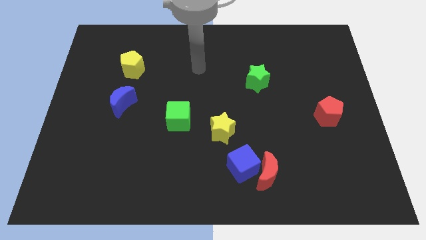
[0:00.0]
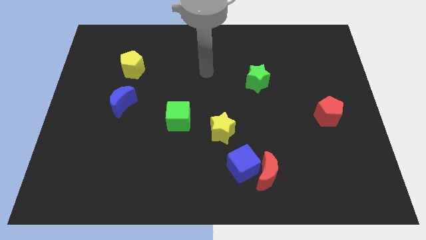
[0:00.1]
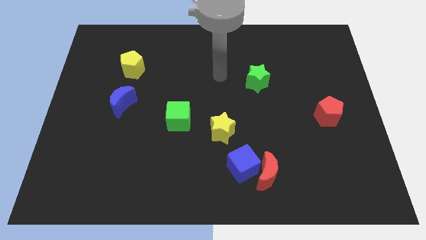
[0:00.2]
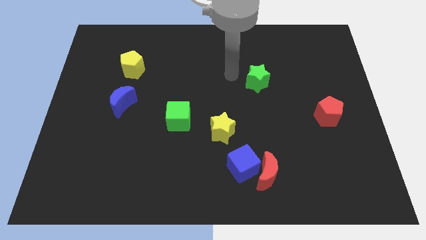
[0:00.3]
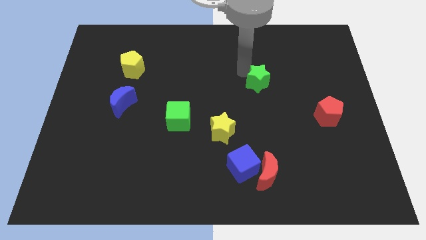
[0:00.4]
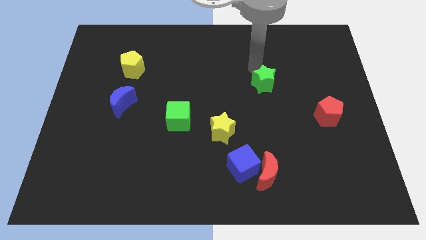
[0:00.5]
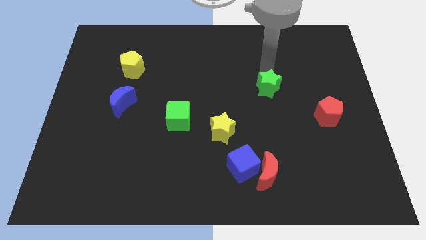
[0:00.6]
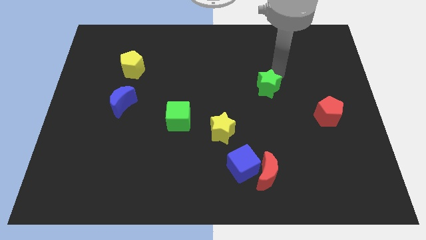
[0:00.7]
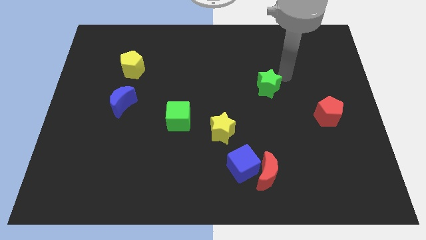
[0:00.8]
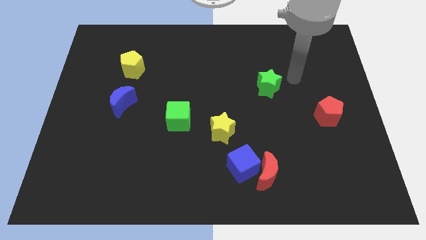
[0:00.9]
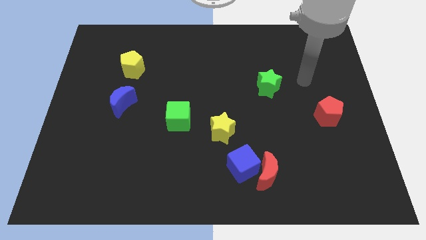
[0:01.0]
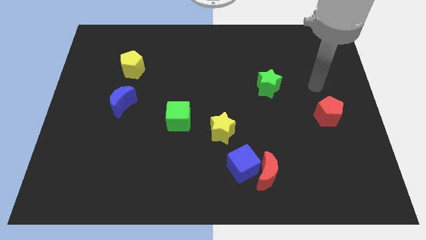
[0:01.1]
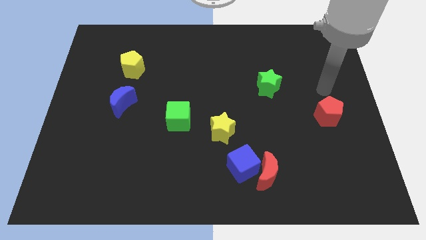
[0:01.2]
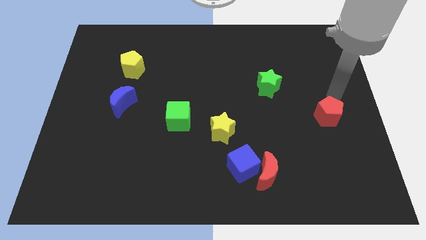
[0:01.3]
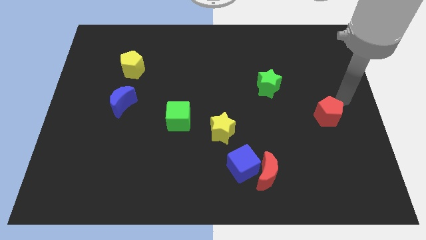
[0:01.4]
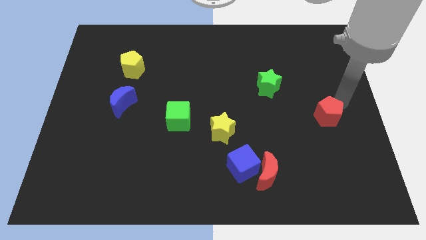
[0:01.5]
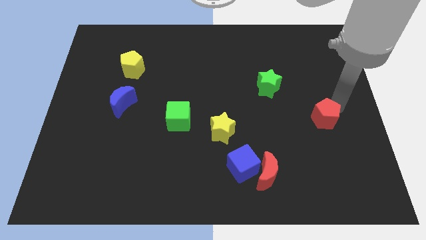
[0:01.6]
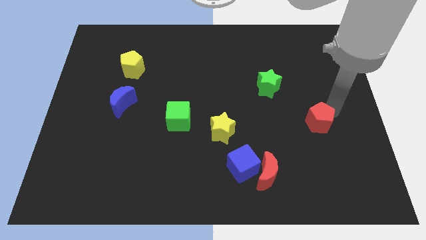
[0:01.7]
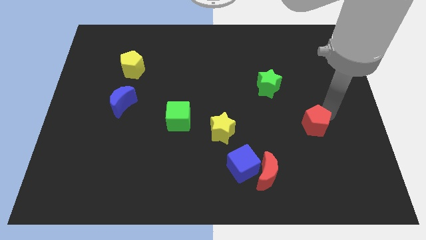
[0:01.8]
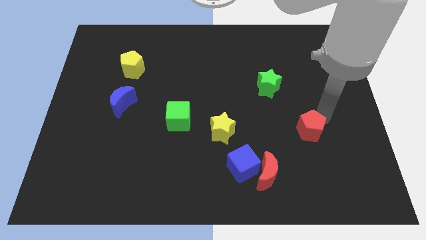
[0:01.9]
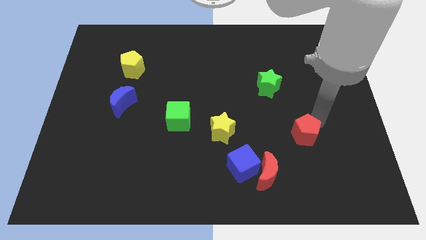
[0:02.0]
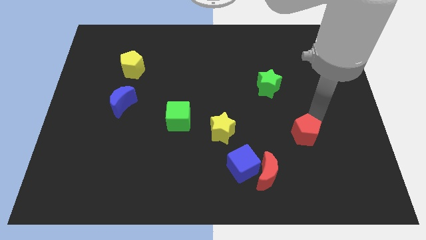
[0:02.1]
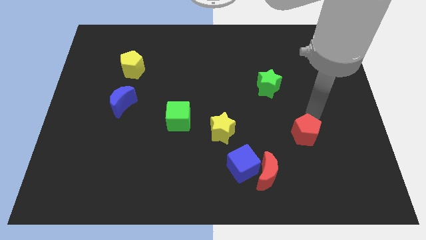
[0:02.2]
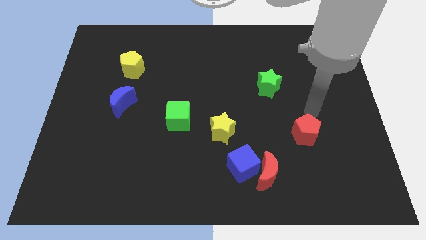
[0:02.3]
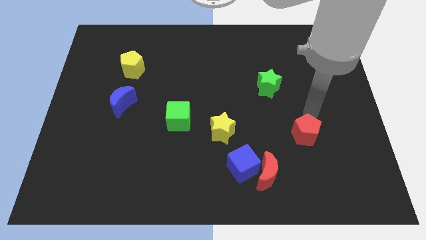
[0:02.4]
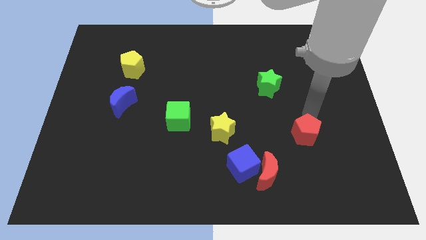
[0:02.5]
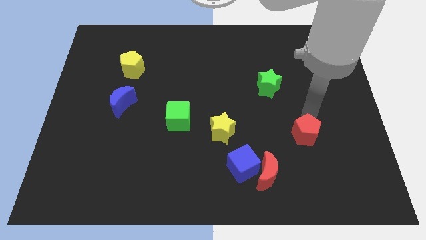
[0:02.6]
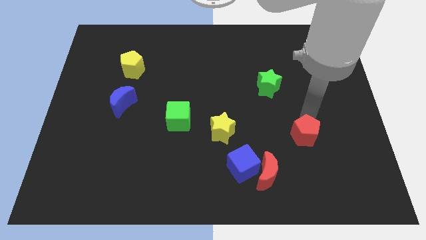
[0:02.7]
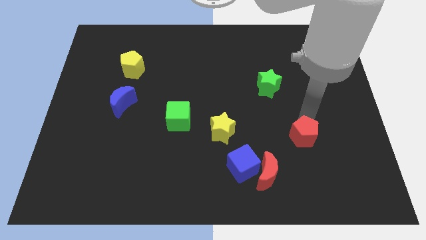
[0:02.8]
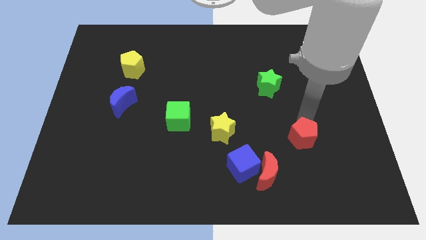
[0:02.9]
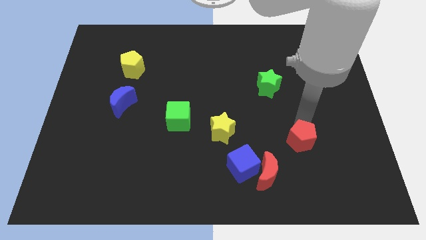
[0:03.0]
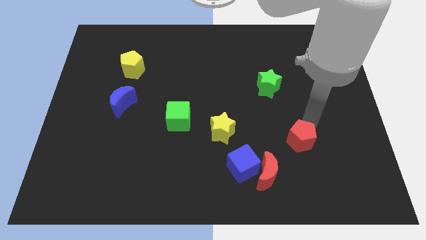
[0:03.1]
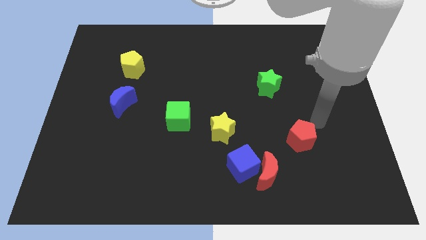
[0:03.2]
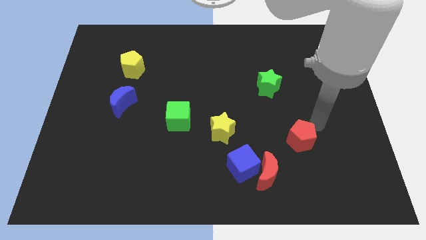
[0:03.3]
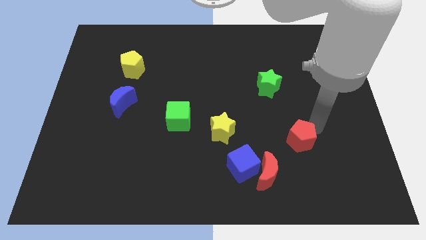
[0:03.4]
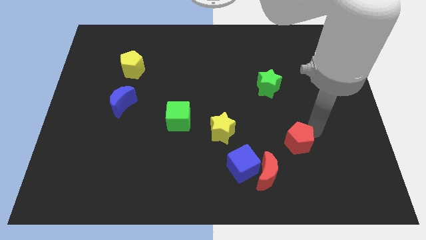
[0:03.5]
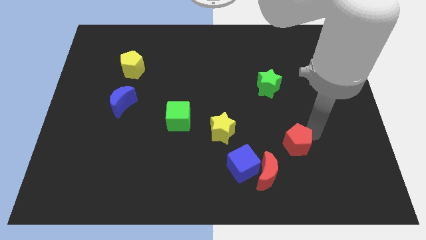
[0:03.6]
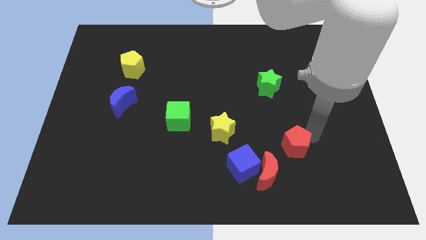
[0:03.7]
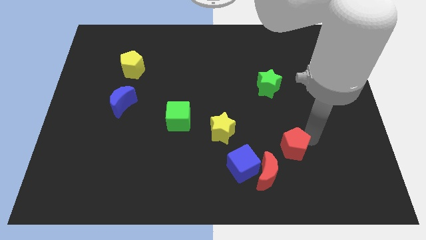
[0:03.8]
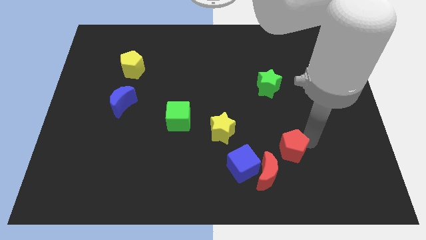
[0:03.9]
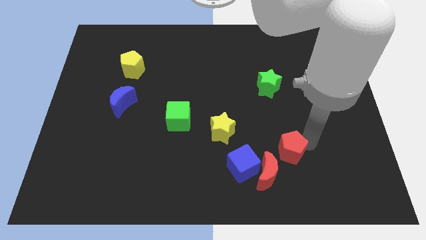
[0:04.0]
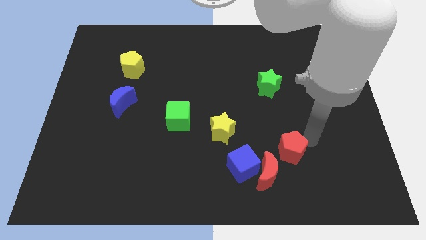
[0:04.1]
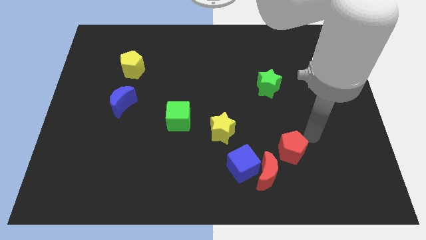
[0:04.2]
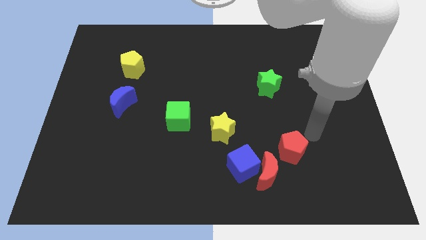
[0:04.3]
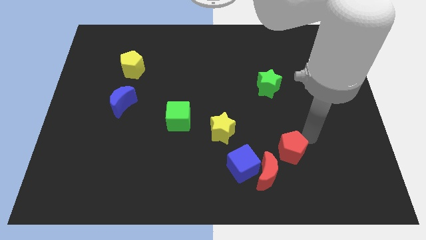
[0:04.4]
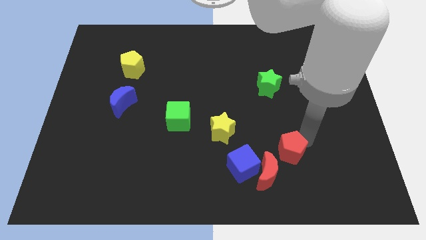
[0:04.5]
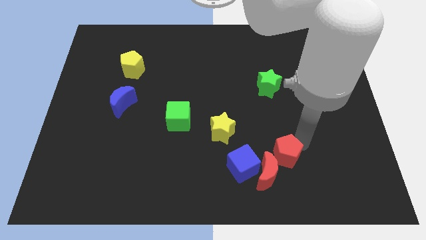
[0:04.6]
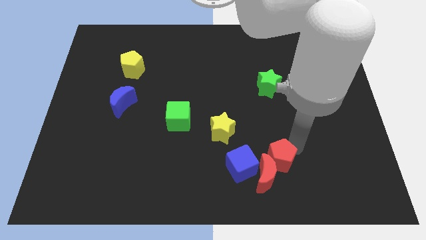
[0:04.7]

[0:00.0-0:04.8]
push the red pentagon next to the red moon

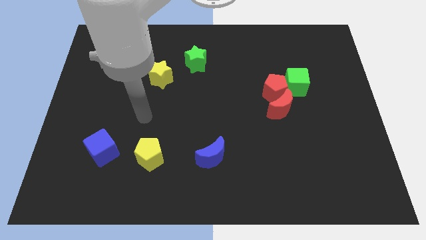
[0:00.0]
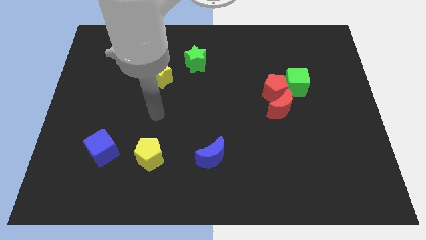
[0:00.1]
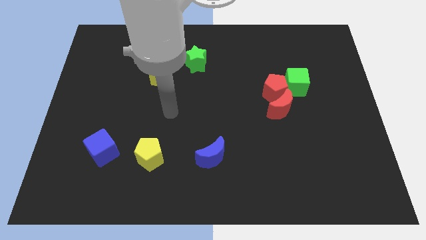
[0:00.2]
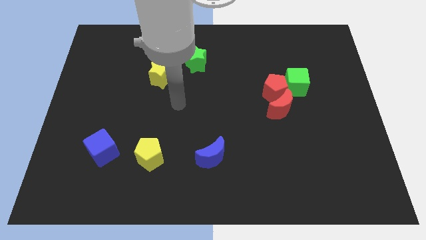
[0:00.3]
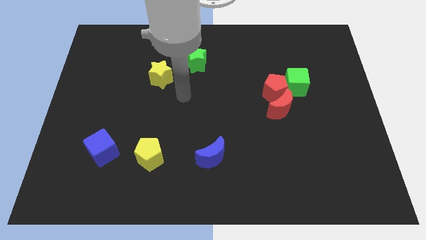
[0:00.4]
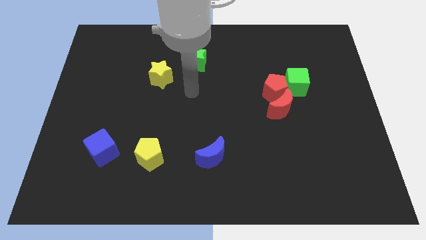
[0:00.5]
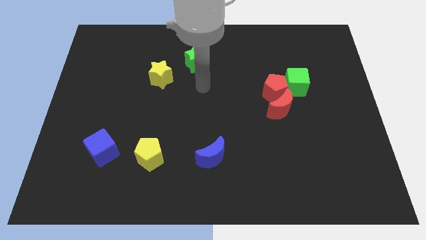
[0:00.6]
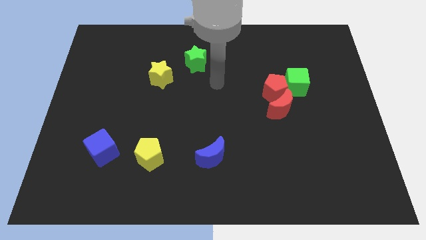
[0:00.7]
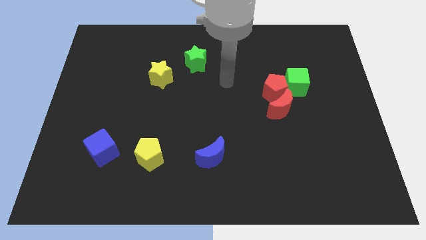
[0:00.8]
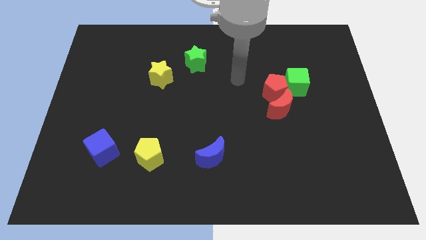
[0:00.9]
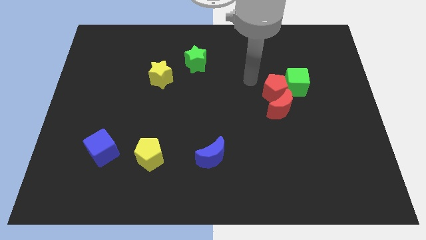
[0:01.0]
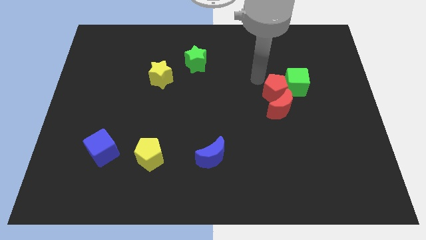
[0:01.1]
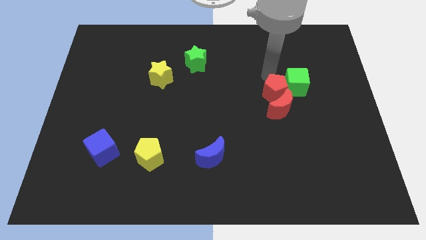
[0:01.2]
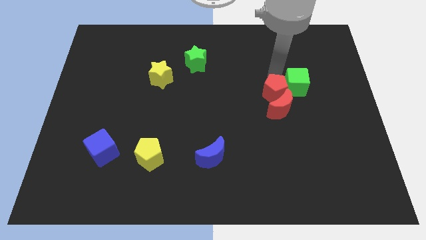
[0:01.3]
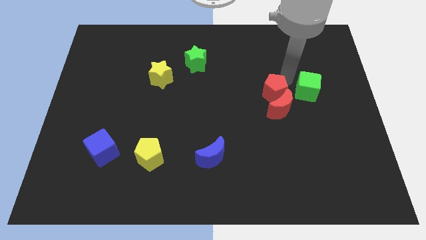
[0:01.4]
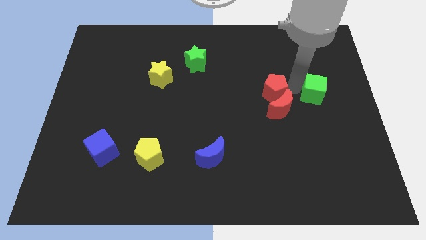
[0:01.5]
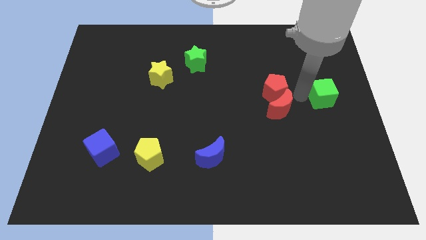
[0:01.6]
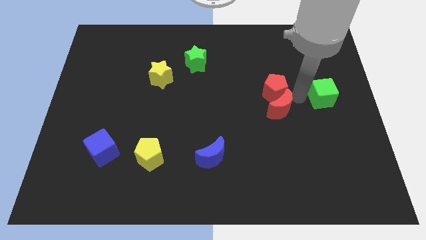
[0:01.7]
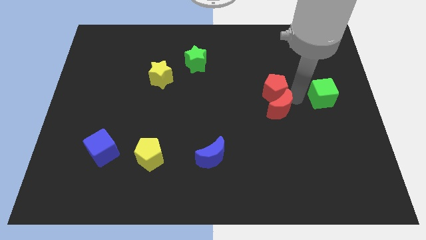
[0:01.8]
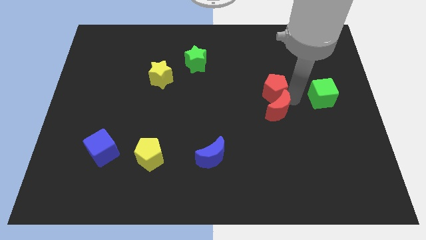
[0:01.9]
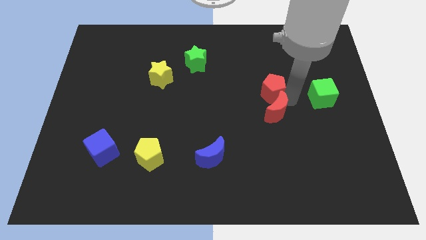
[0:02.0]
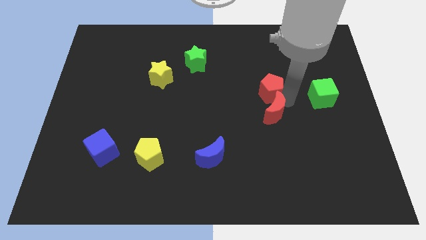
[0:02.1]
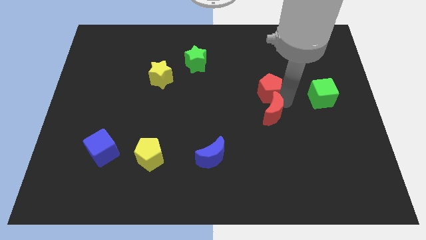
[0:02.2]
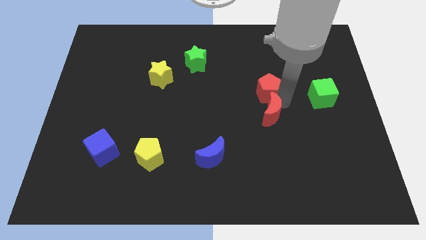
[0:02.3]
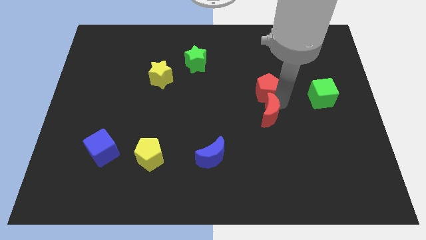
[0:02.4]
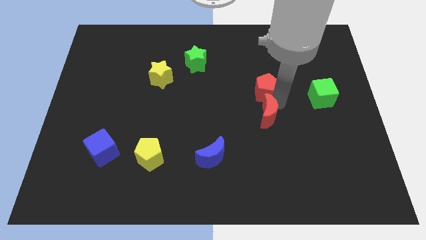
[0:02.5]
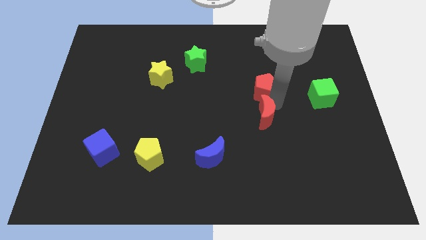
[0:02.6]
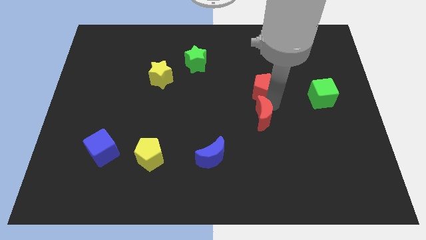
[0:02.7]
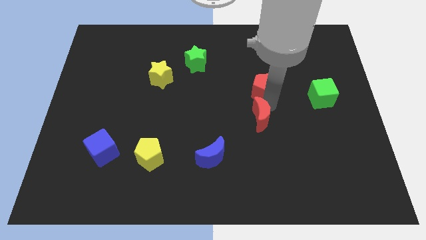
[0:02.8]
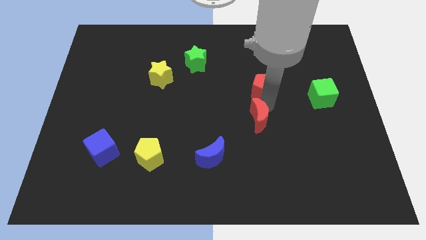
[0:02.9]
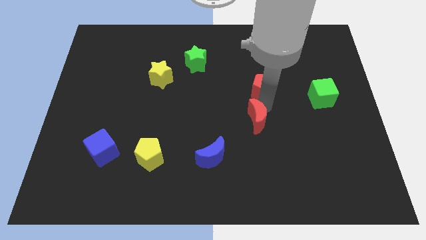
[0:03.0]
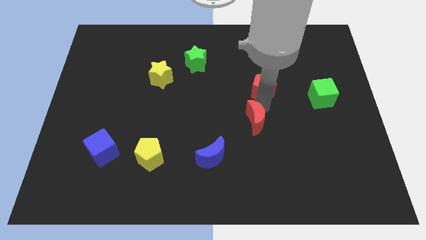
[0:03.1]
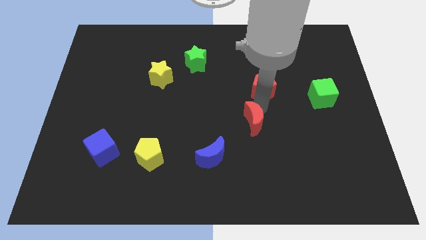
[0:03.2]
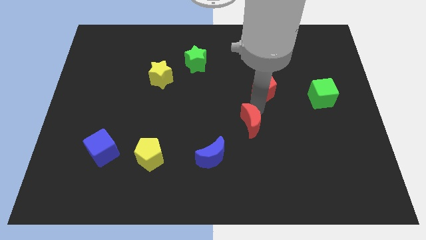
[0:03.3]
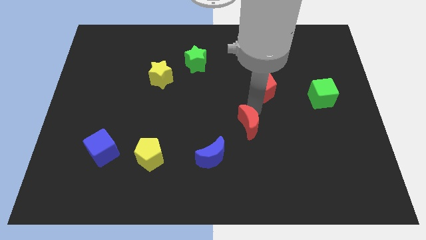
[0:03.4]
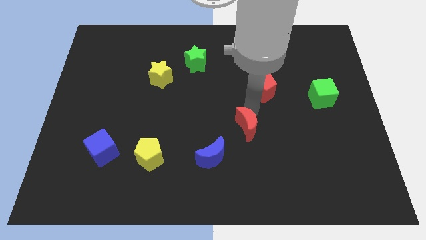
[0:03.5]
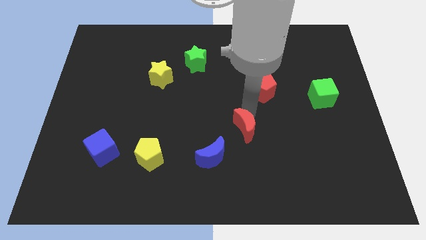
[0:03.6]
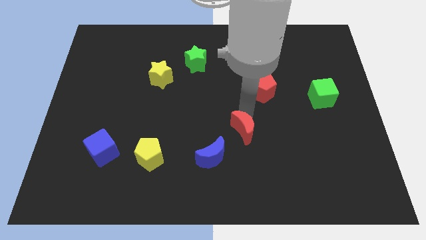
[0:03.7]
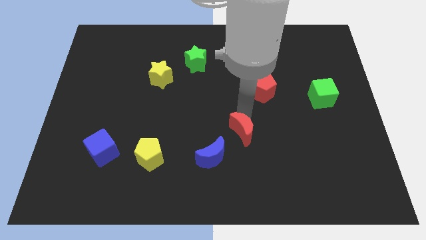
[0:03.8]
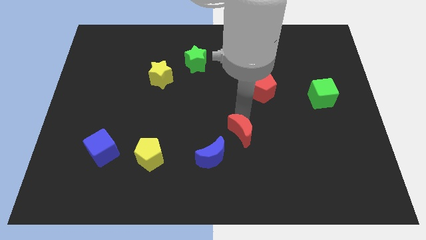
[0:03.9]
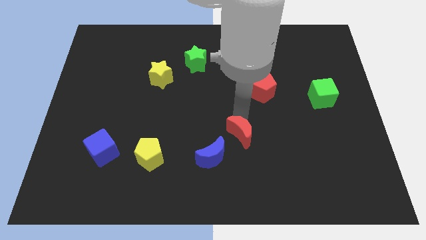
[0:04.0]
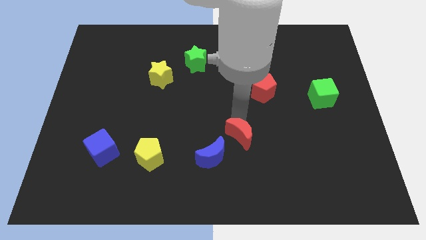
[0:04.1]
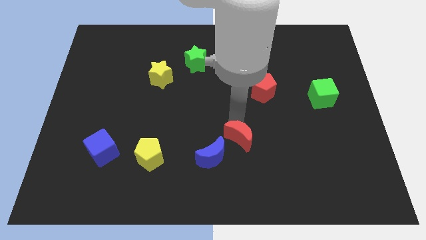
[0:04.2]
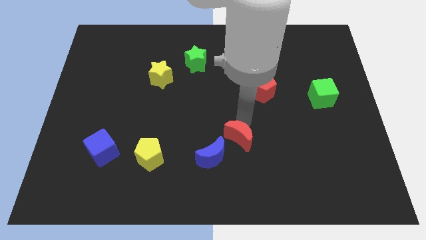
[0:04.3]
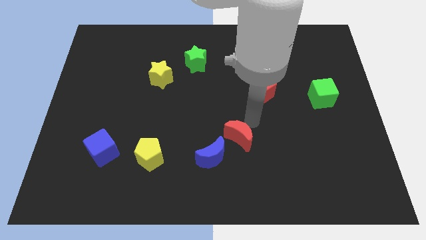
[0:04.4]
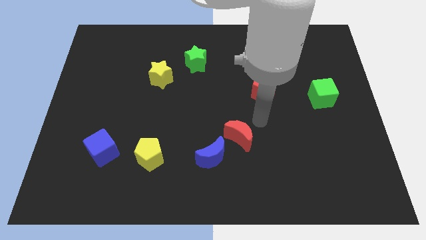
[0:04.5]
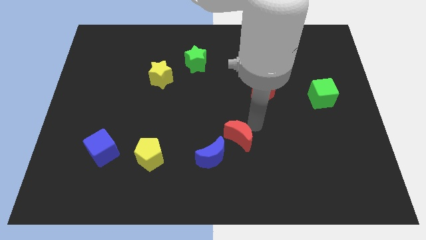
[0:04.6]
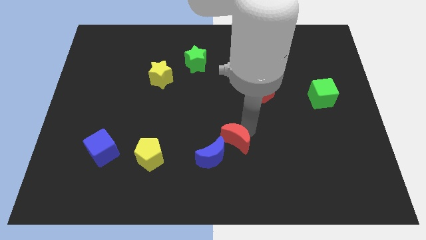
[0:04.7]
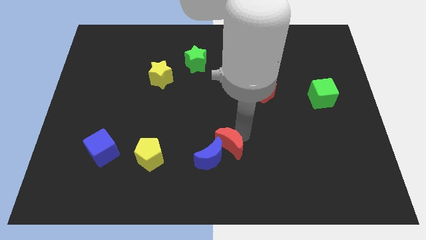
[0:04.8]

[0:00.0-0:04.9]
put the red moon close to the blue moon
